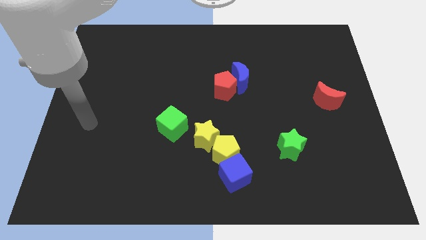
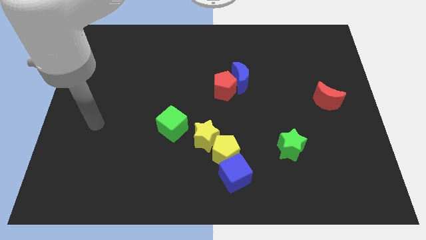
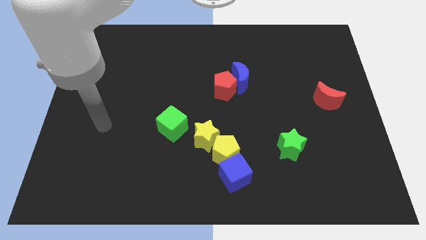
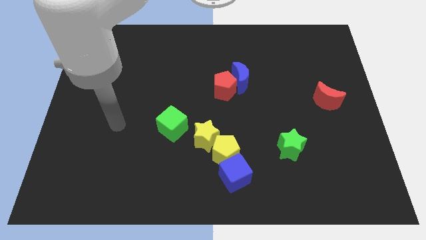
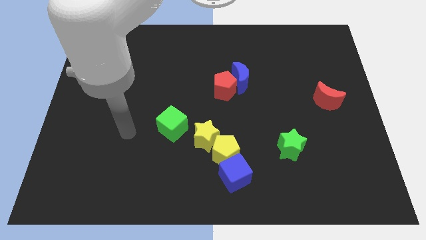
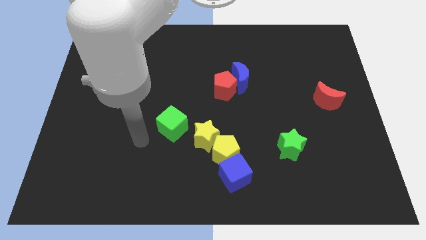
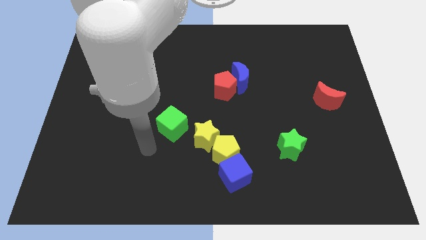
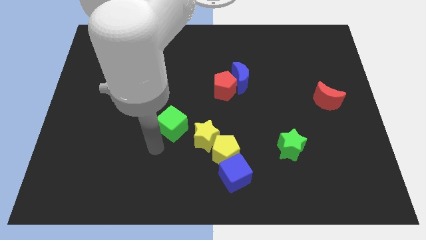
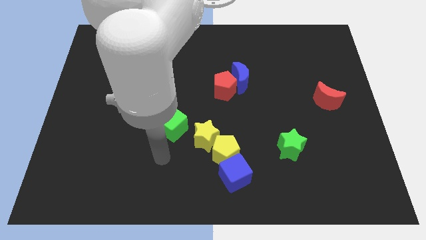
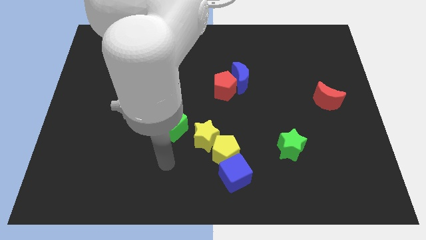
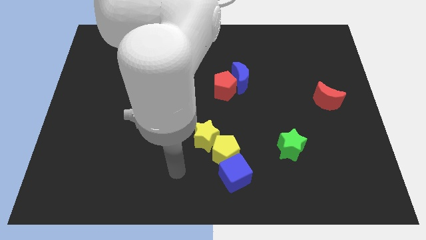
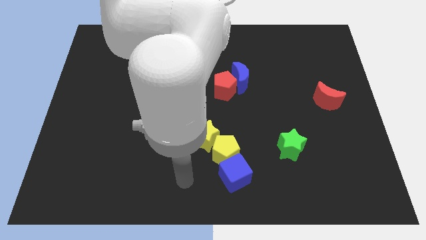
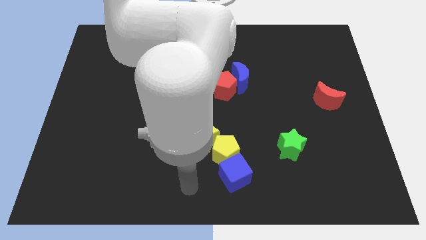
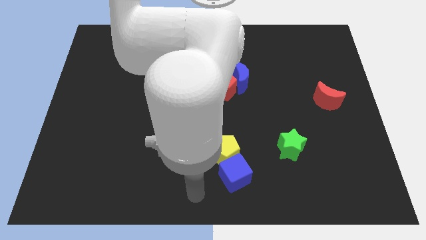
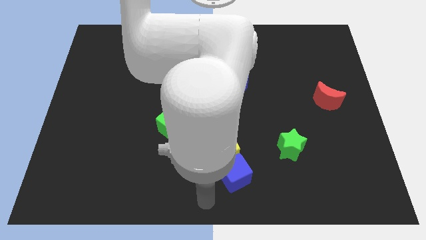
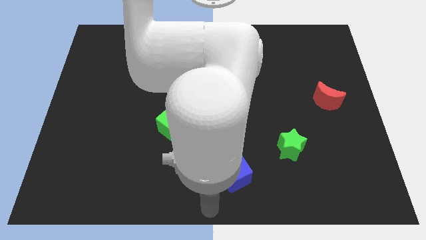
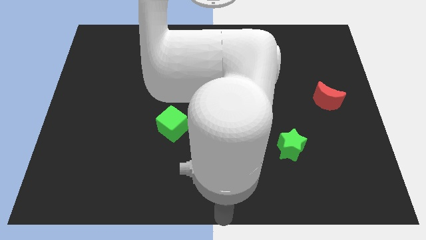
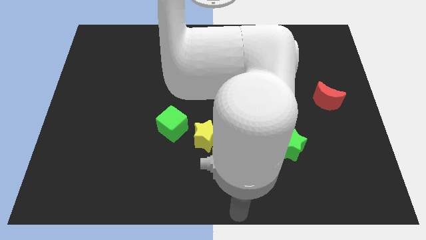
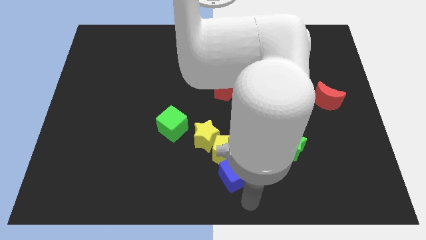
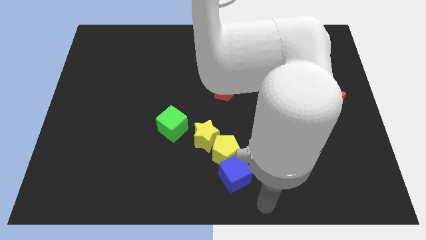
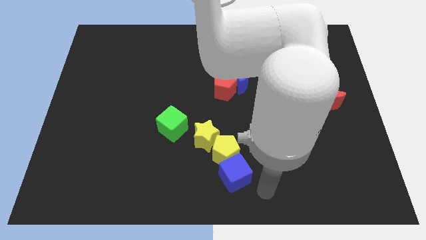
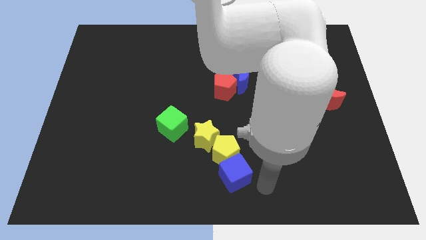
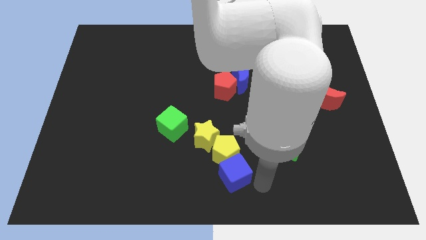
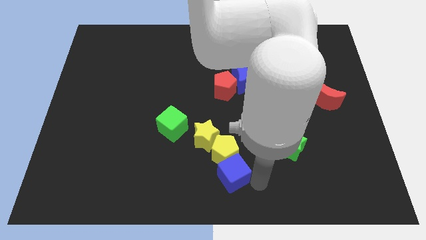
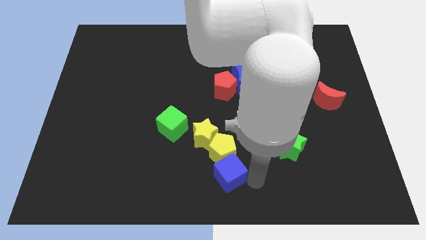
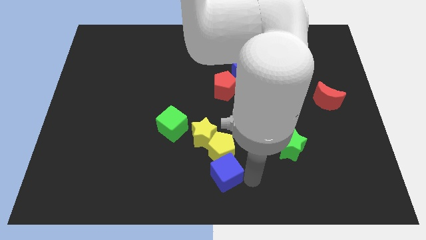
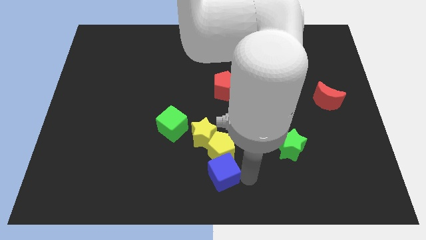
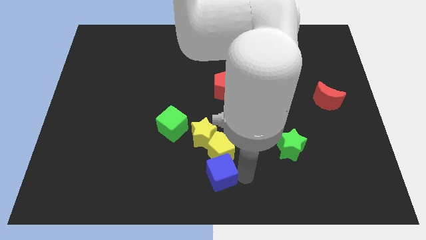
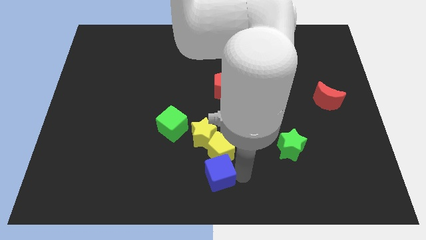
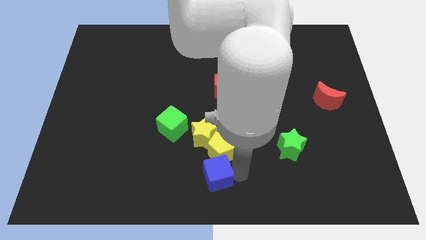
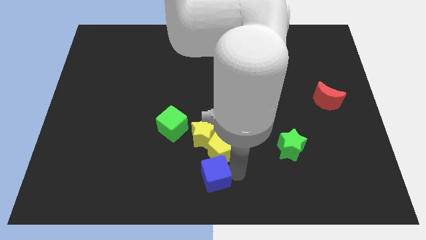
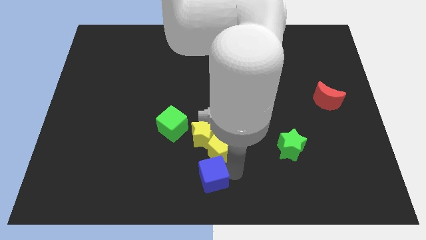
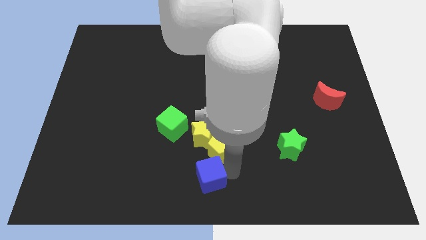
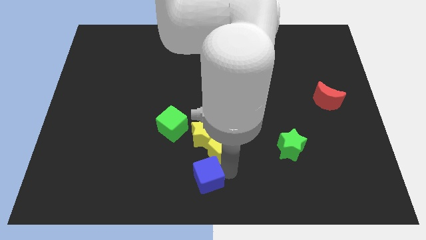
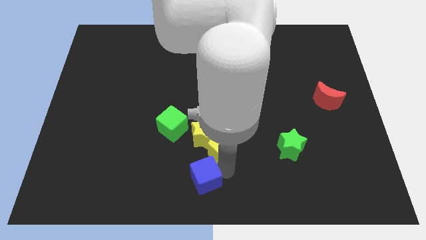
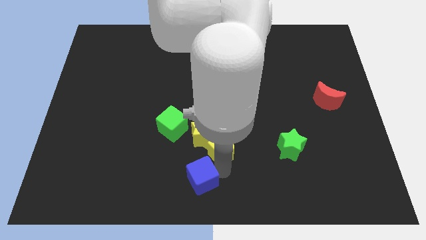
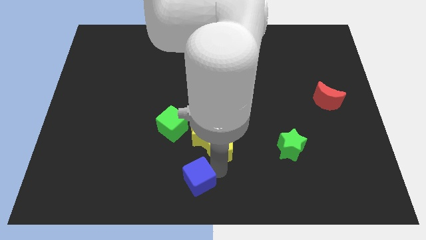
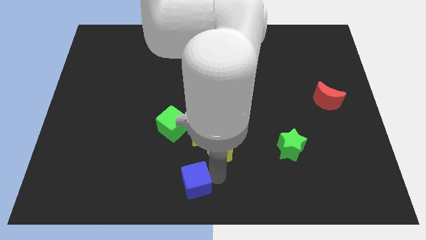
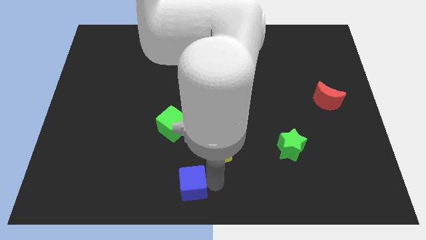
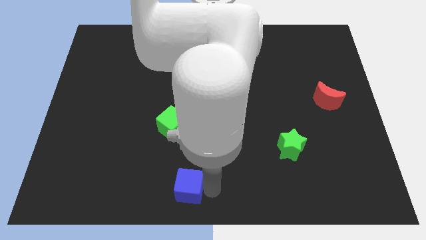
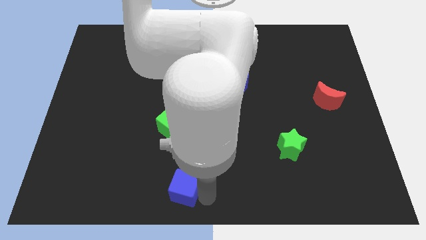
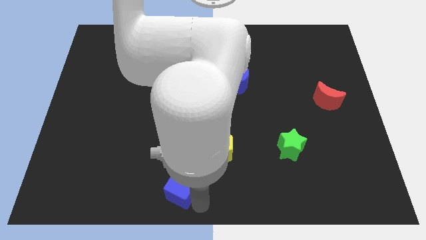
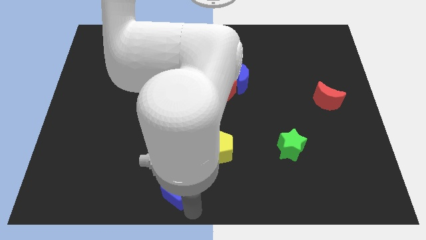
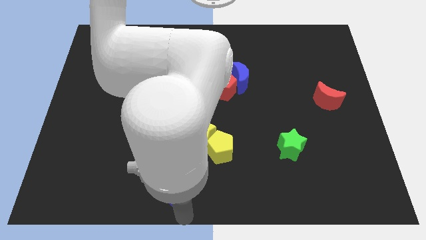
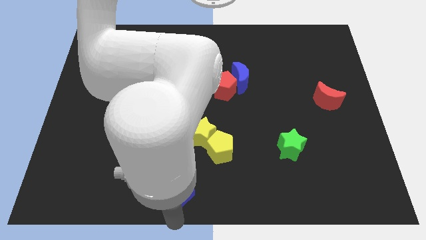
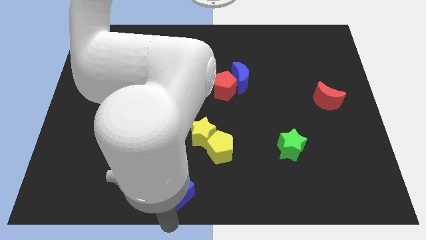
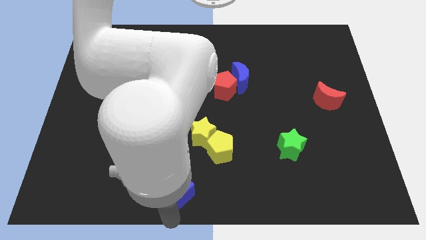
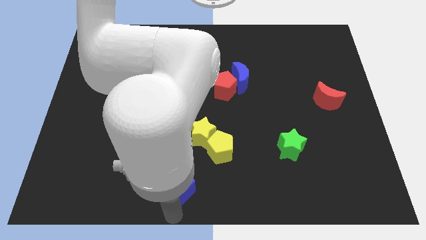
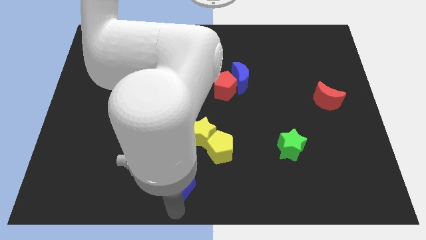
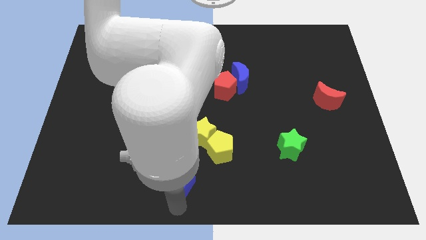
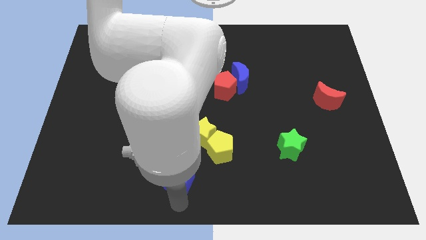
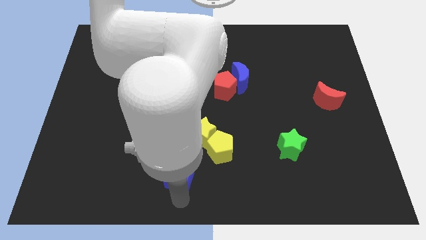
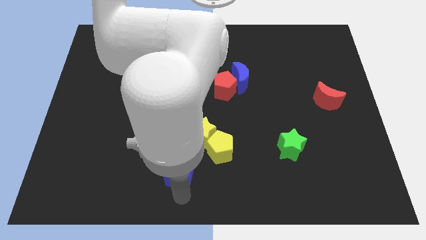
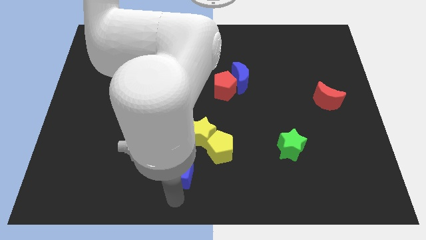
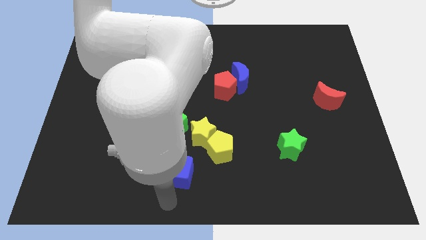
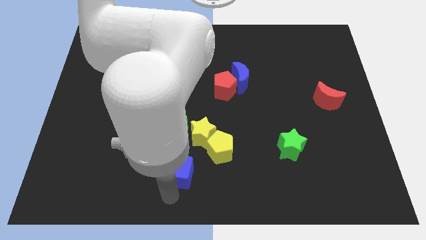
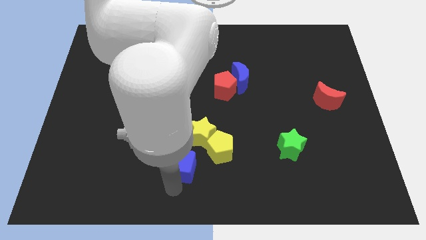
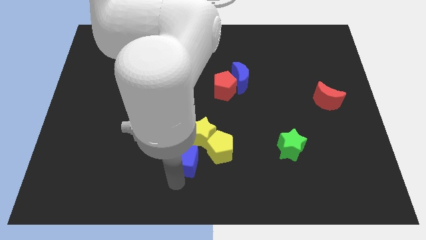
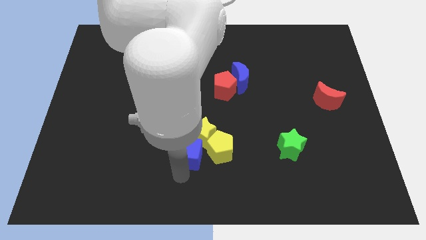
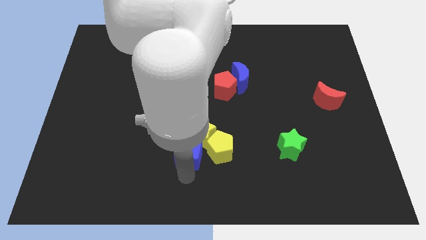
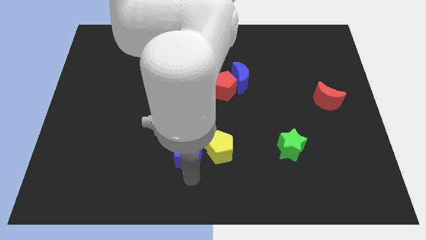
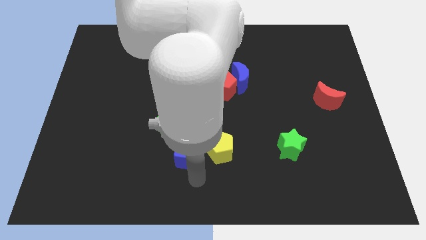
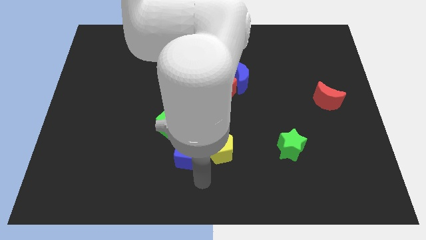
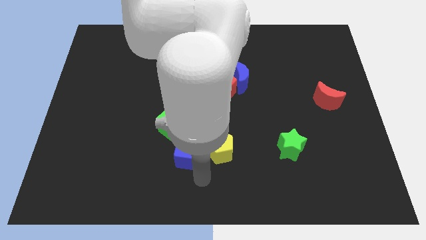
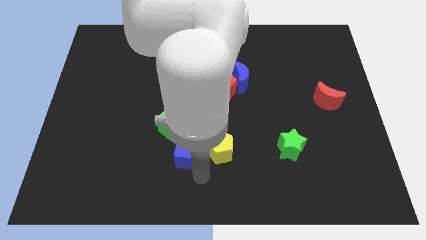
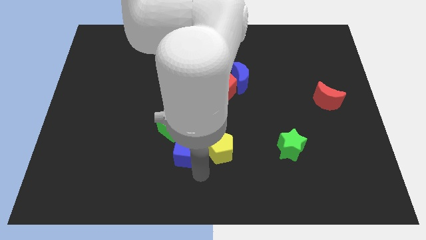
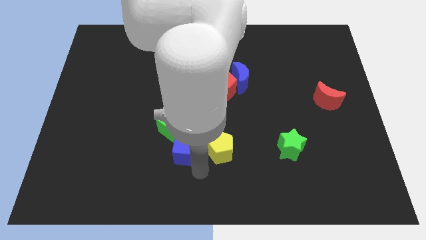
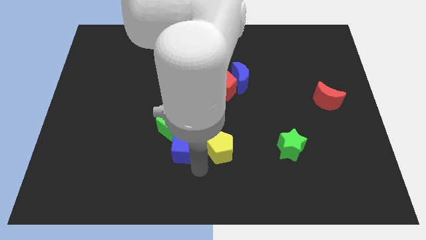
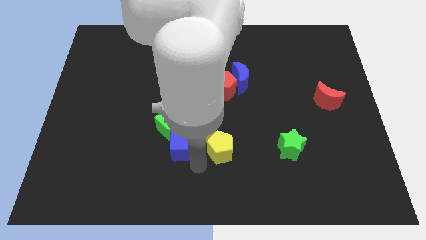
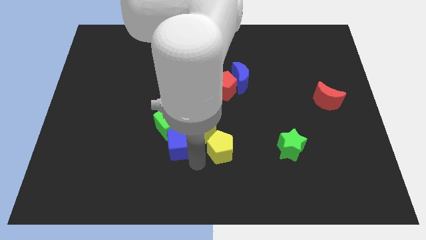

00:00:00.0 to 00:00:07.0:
put the blue cube next to the green cube

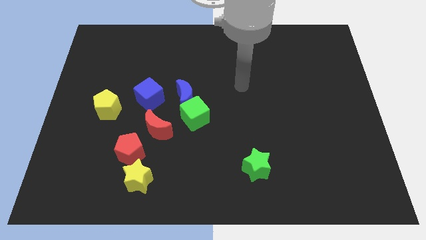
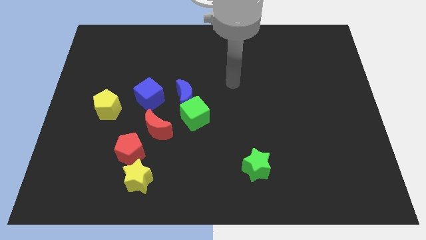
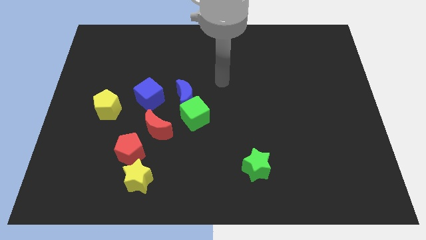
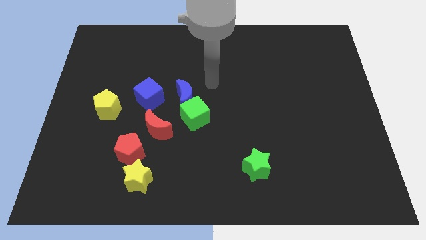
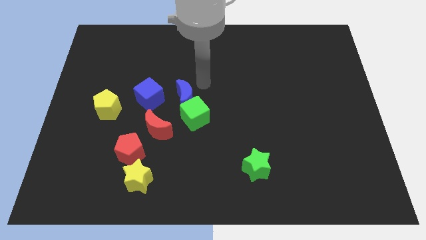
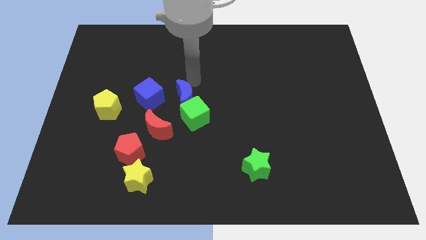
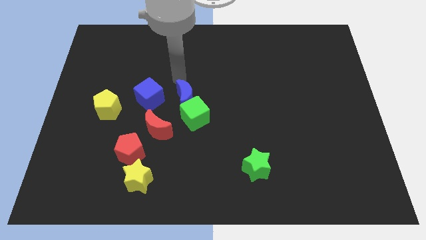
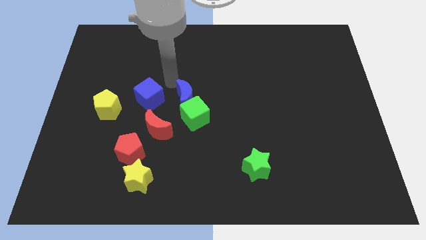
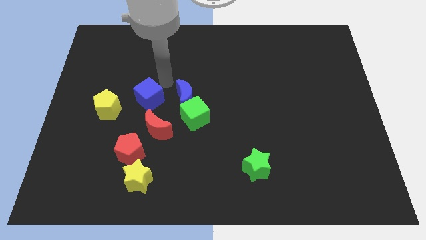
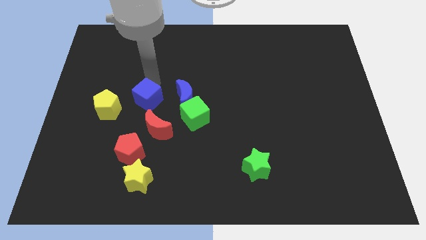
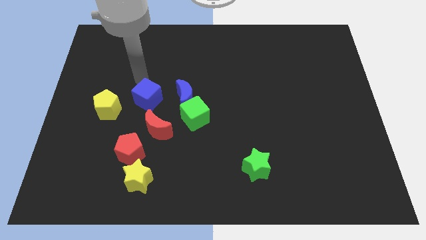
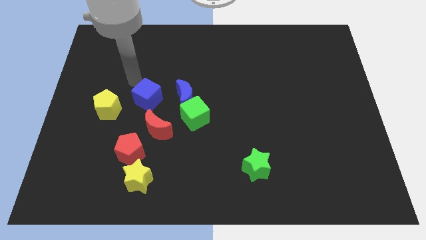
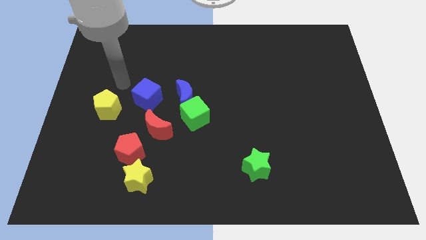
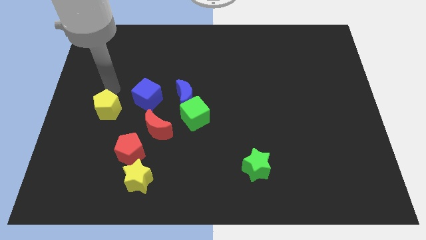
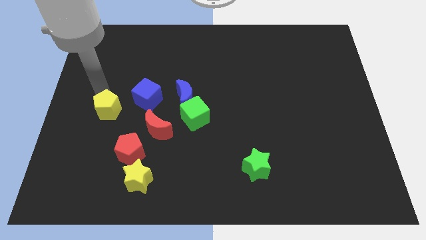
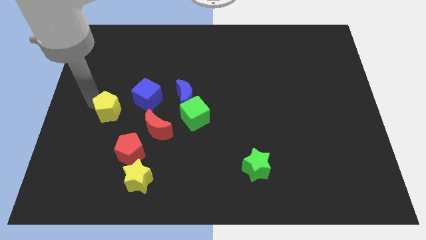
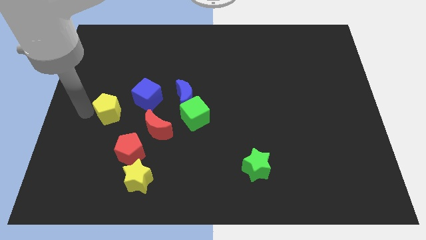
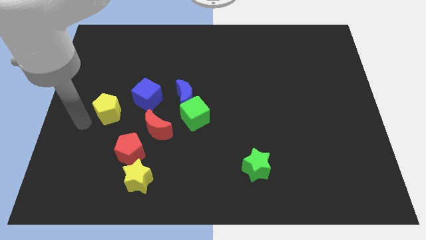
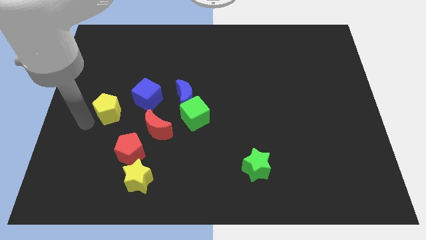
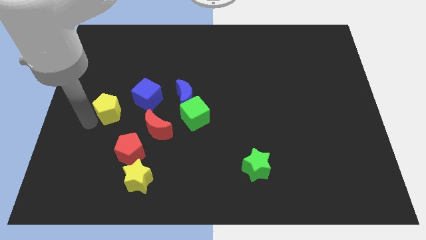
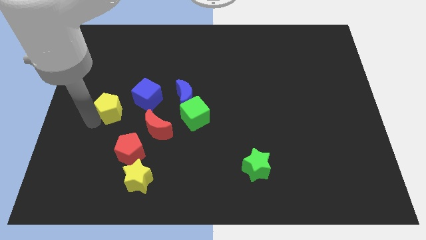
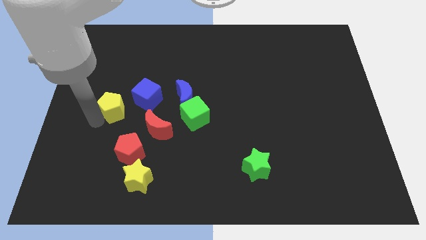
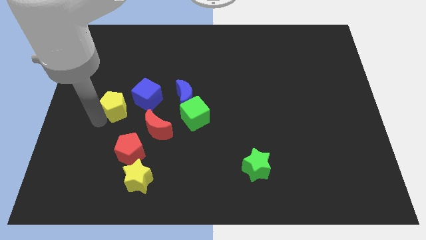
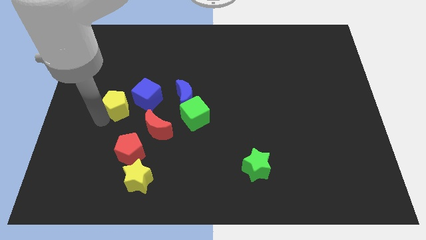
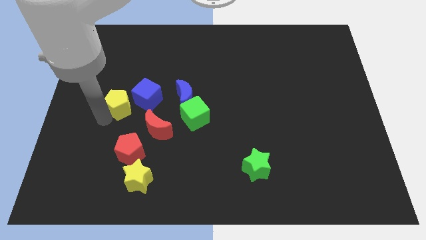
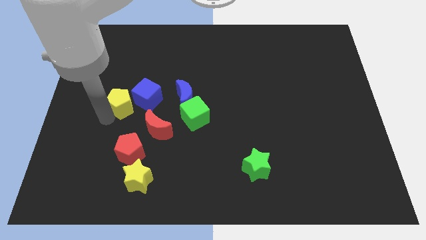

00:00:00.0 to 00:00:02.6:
put the yellow pentagon towards the blue cube
